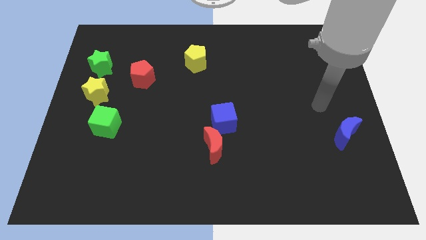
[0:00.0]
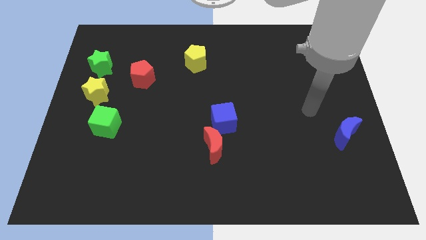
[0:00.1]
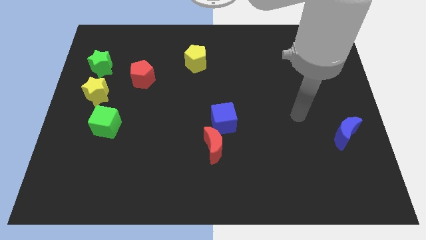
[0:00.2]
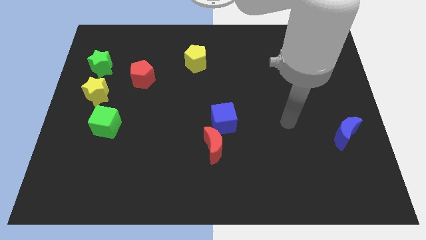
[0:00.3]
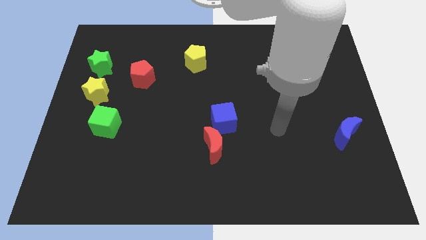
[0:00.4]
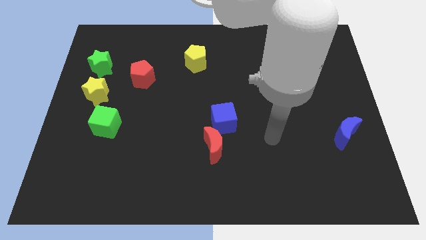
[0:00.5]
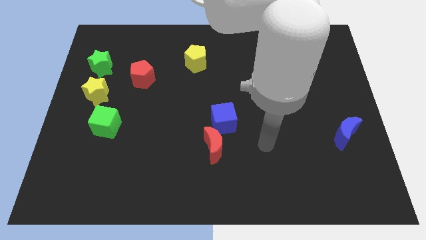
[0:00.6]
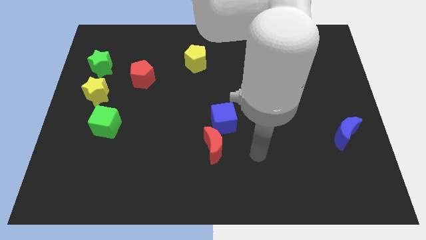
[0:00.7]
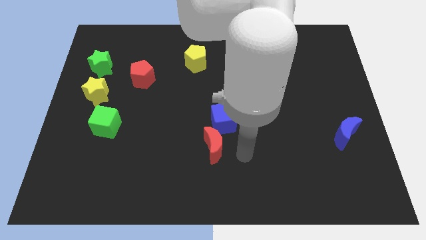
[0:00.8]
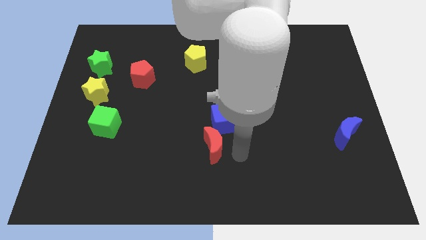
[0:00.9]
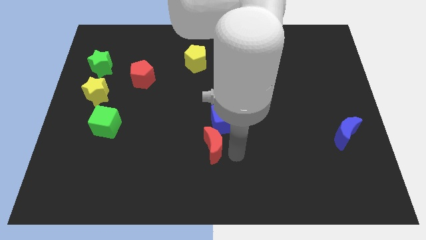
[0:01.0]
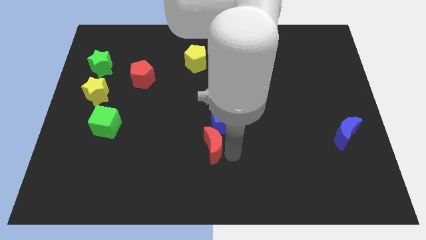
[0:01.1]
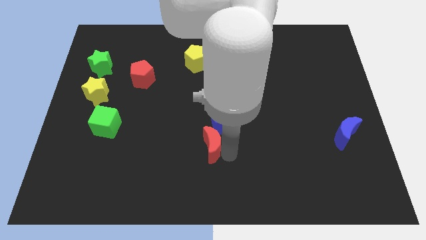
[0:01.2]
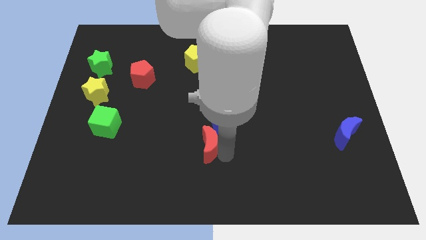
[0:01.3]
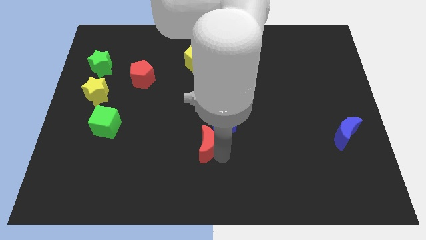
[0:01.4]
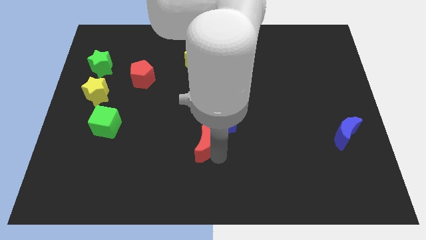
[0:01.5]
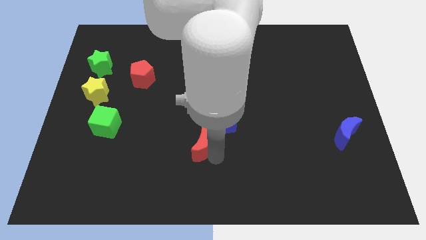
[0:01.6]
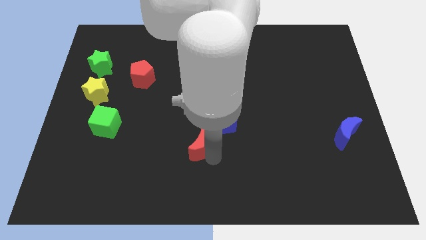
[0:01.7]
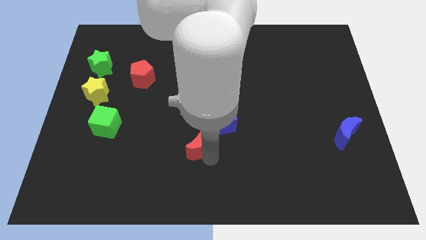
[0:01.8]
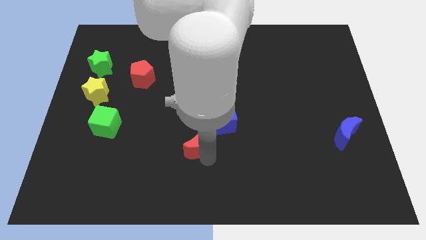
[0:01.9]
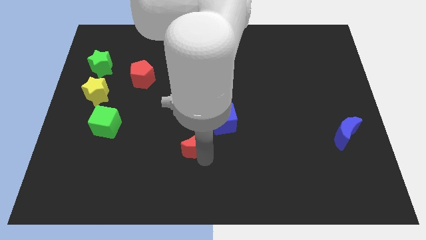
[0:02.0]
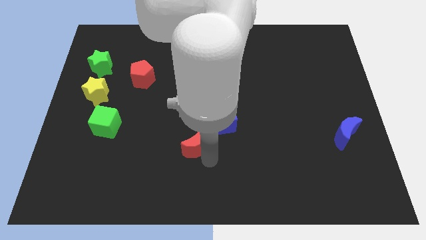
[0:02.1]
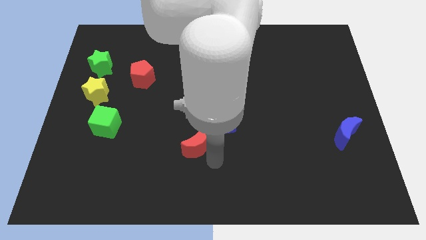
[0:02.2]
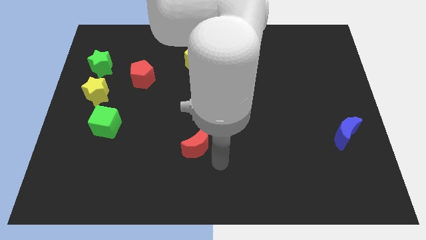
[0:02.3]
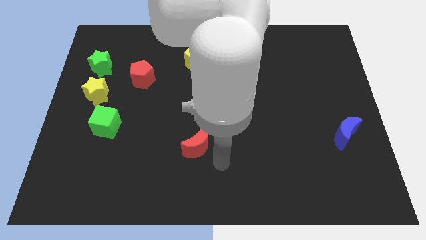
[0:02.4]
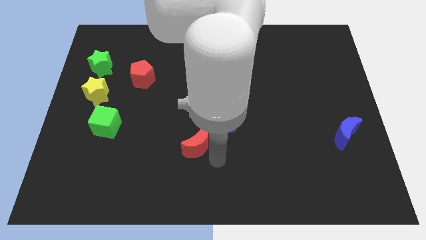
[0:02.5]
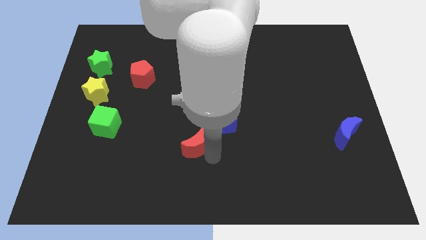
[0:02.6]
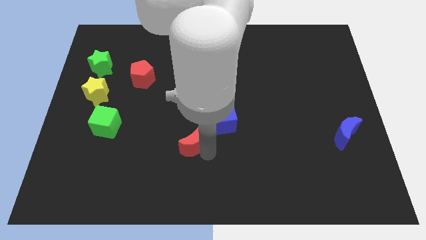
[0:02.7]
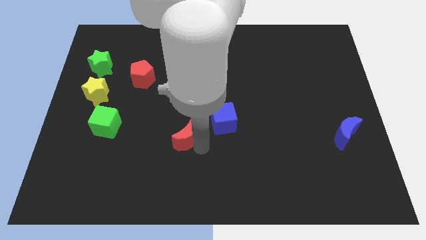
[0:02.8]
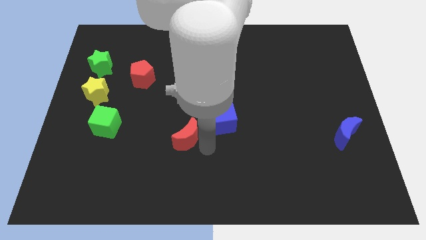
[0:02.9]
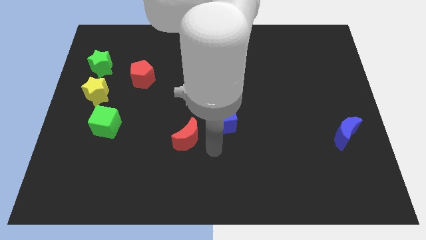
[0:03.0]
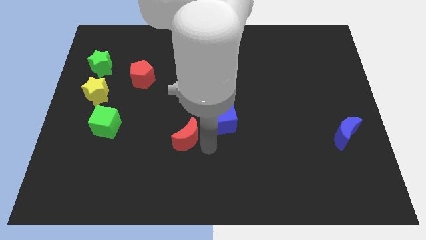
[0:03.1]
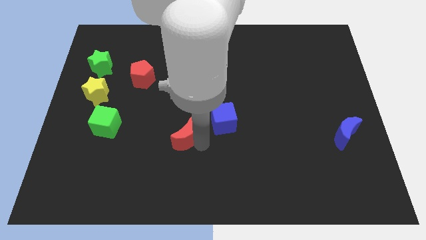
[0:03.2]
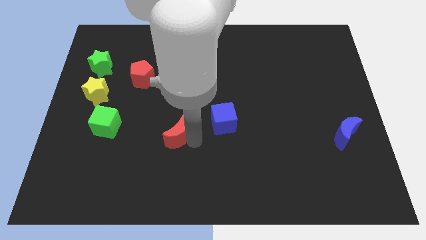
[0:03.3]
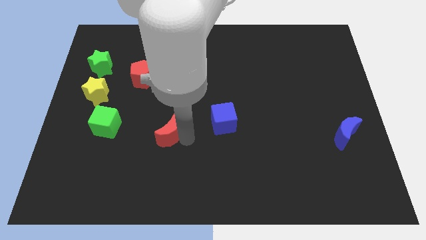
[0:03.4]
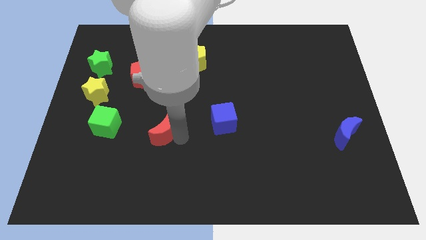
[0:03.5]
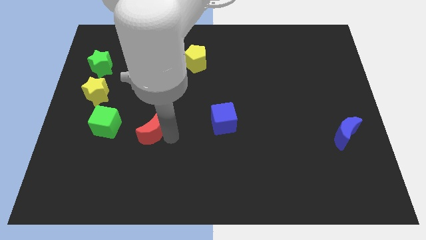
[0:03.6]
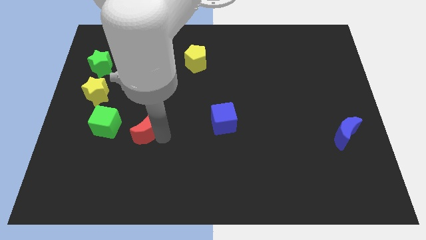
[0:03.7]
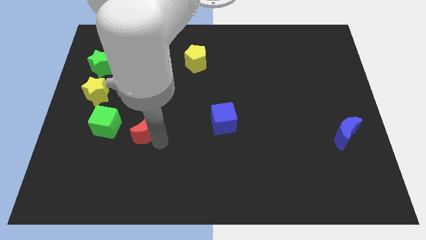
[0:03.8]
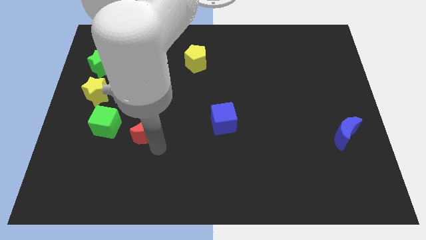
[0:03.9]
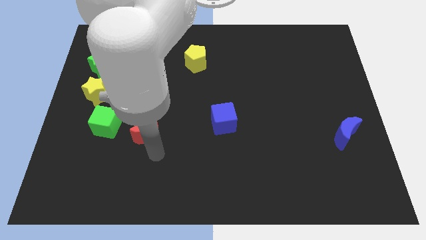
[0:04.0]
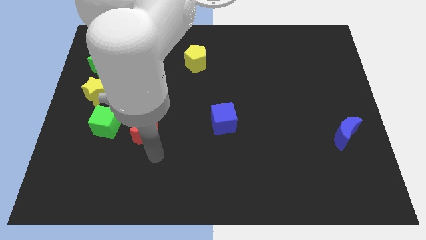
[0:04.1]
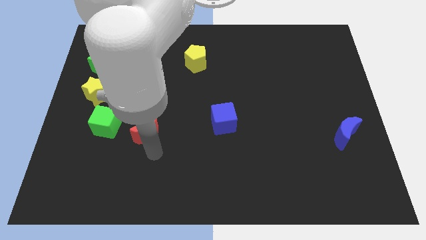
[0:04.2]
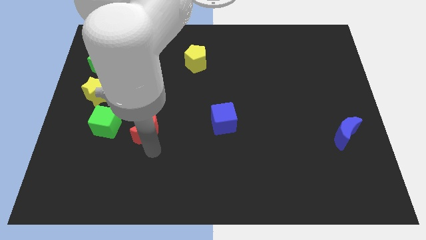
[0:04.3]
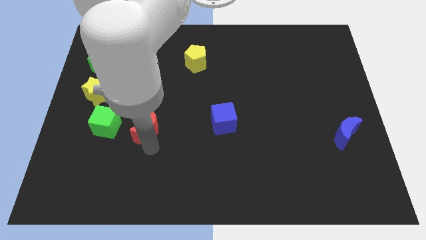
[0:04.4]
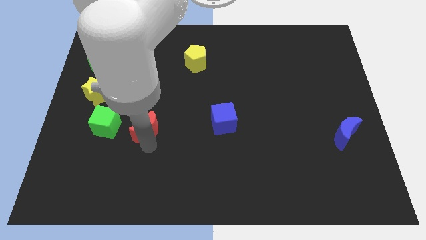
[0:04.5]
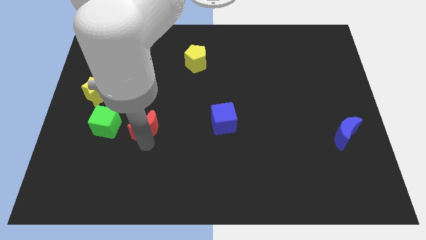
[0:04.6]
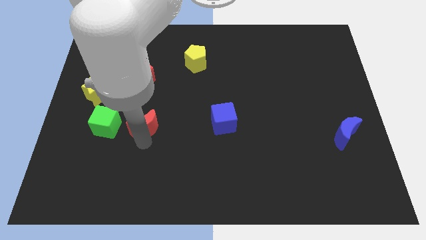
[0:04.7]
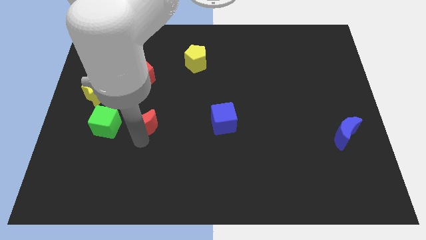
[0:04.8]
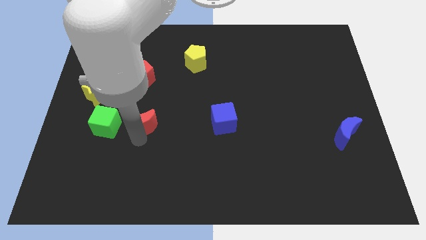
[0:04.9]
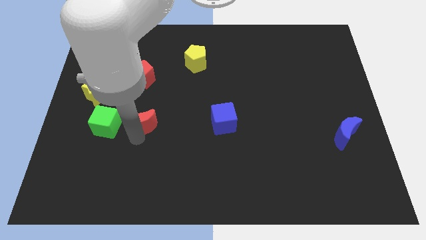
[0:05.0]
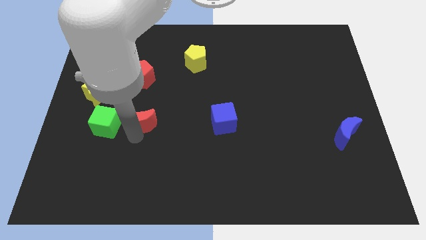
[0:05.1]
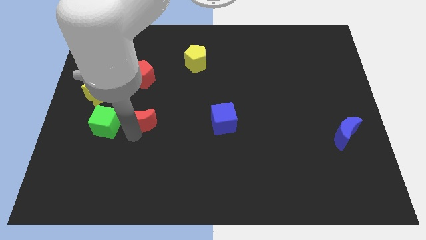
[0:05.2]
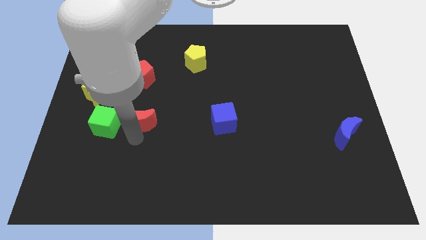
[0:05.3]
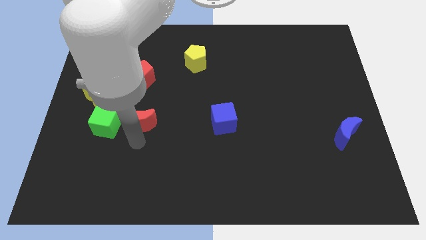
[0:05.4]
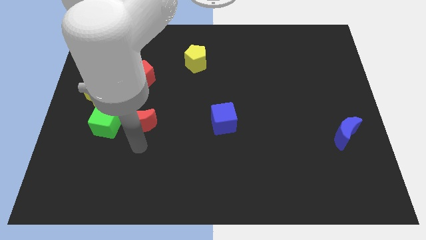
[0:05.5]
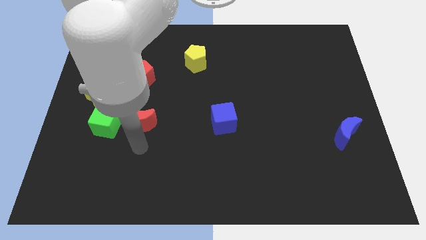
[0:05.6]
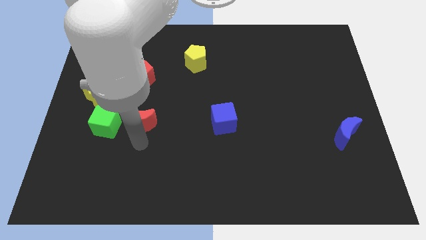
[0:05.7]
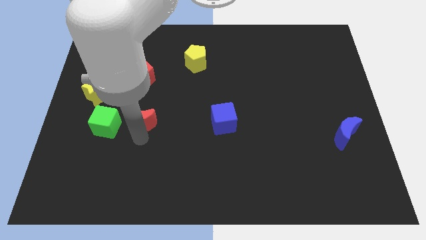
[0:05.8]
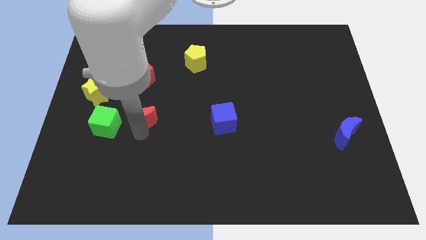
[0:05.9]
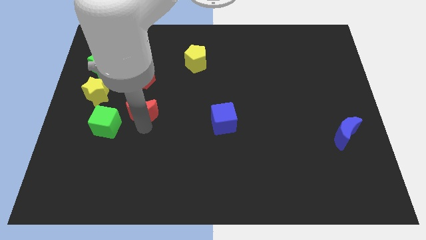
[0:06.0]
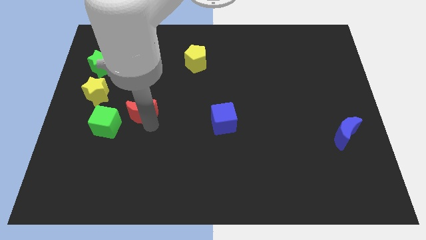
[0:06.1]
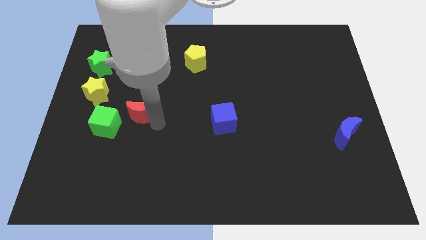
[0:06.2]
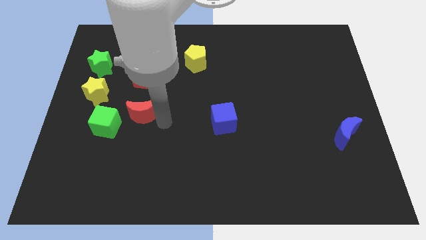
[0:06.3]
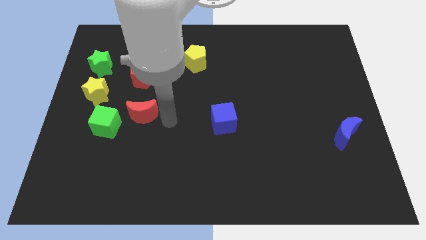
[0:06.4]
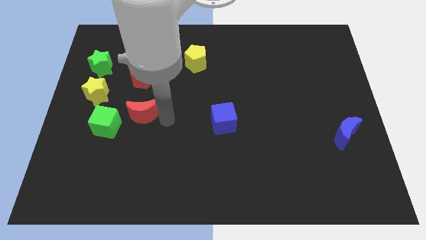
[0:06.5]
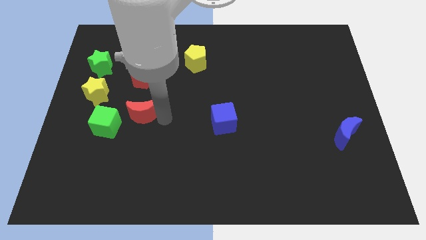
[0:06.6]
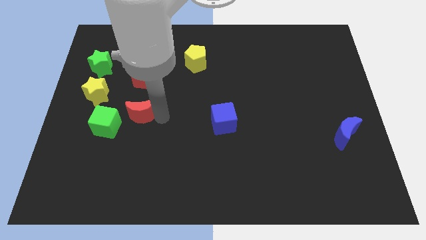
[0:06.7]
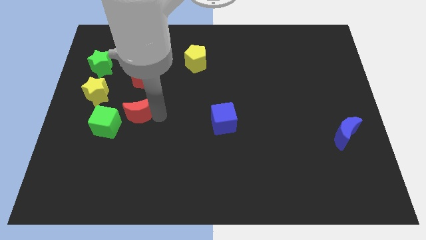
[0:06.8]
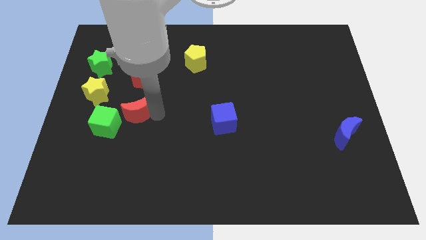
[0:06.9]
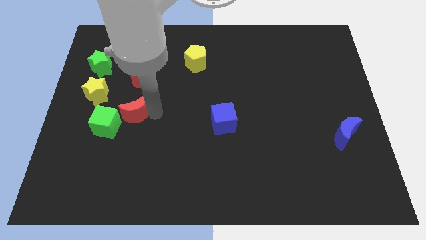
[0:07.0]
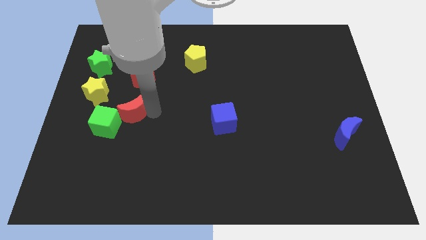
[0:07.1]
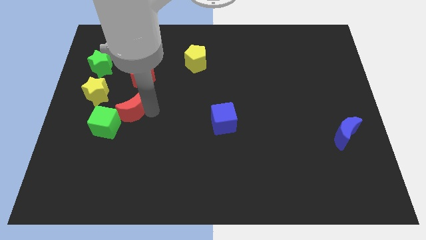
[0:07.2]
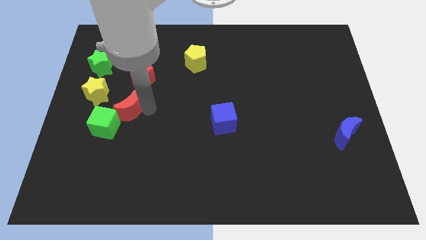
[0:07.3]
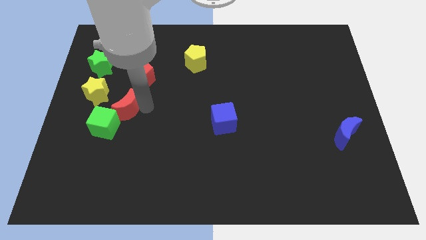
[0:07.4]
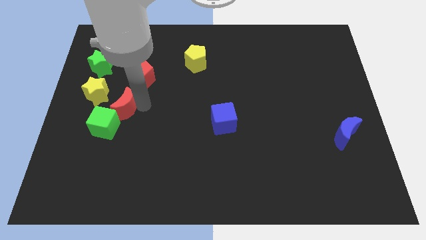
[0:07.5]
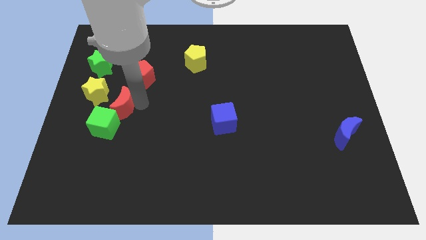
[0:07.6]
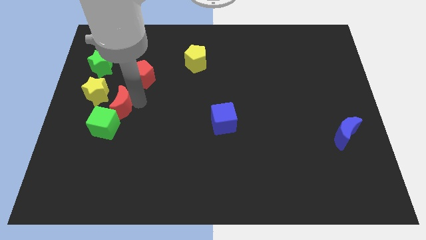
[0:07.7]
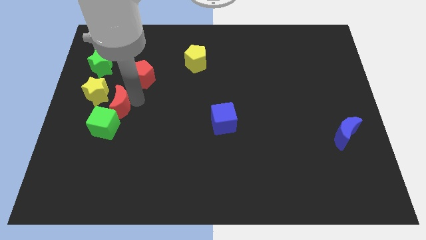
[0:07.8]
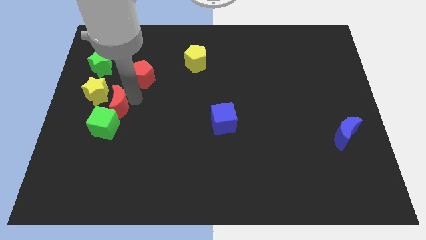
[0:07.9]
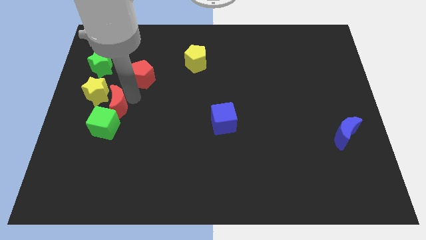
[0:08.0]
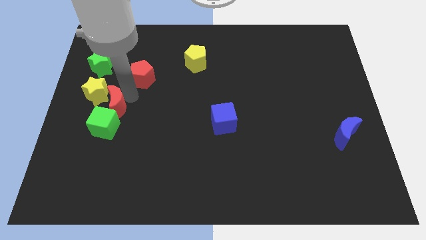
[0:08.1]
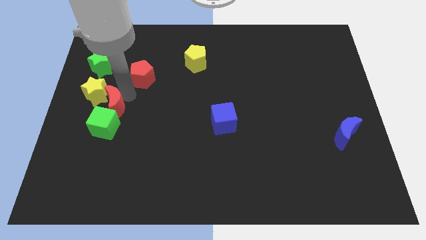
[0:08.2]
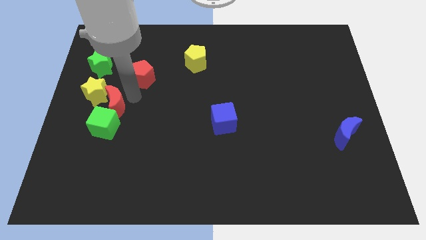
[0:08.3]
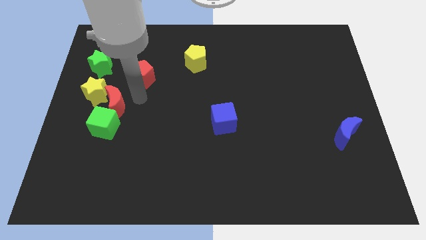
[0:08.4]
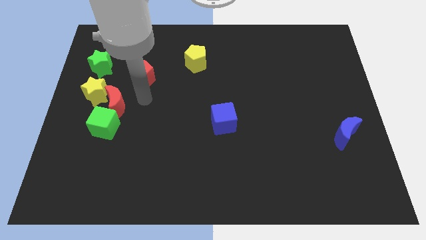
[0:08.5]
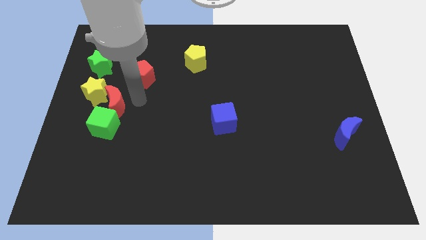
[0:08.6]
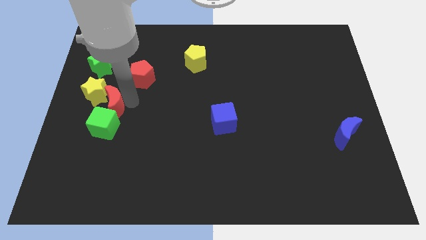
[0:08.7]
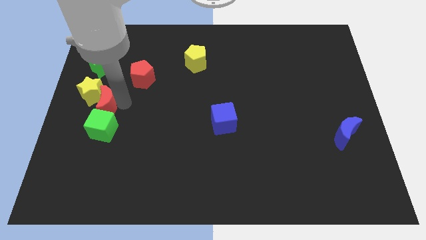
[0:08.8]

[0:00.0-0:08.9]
slide the red moon below the green star
